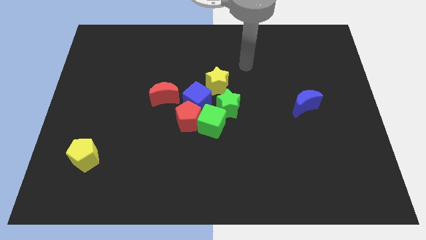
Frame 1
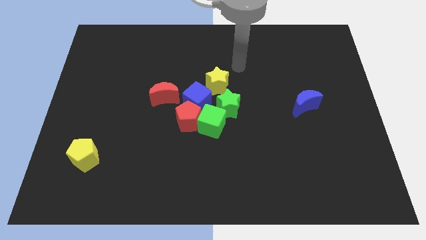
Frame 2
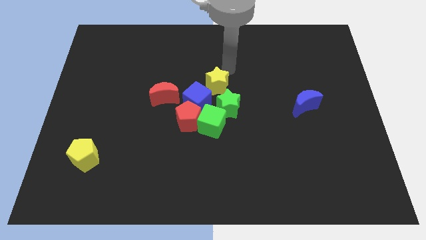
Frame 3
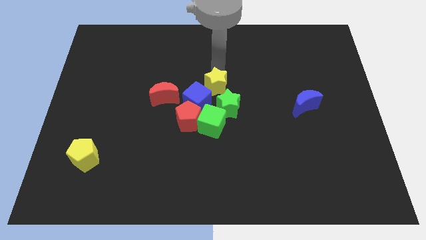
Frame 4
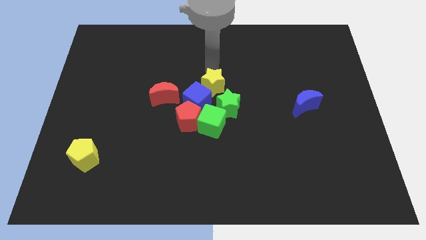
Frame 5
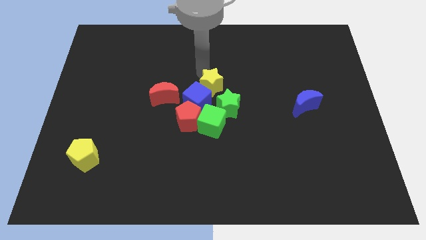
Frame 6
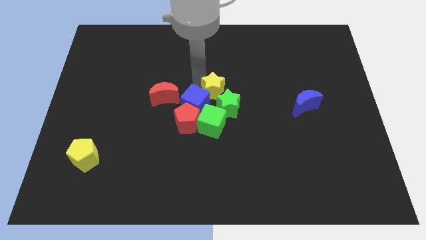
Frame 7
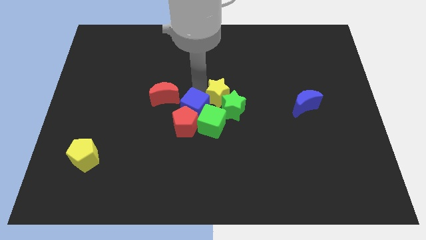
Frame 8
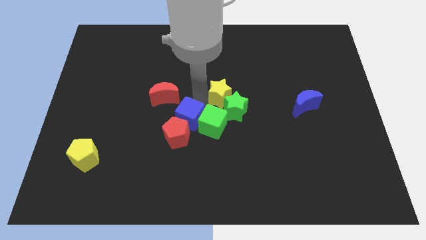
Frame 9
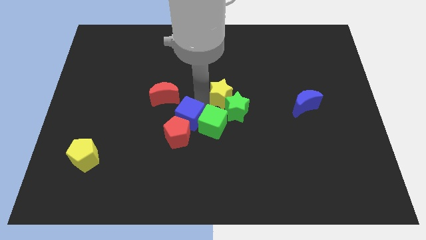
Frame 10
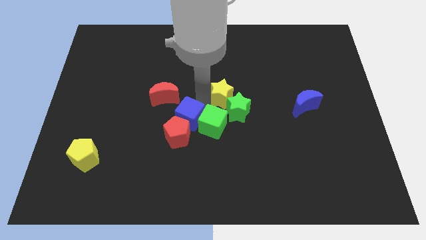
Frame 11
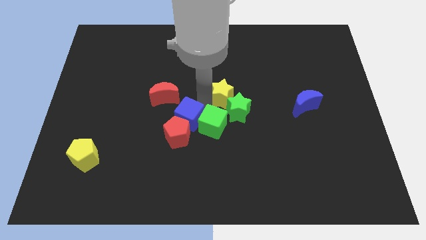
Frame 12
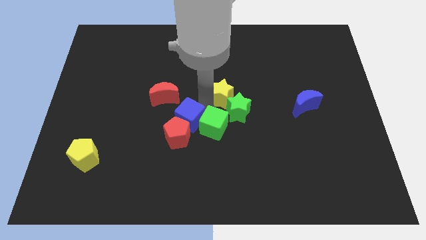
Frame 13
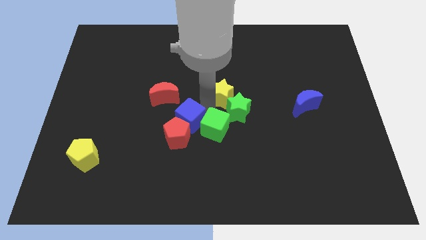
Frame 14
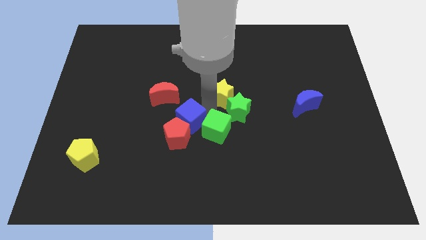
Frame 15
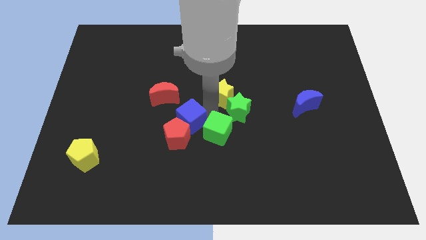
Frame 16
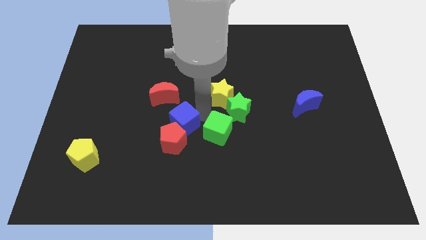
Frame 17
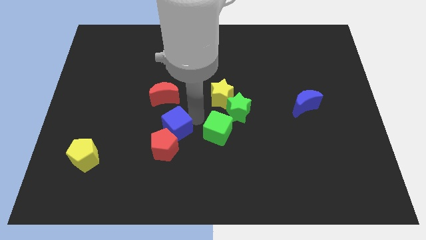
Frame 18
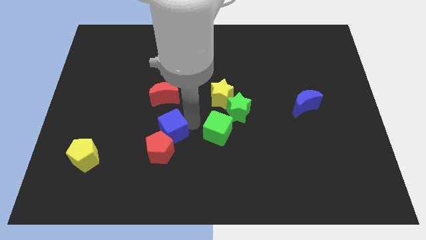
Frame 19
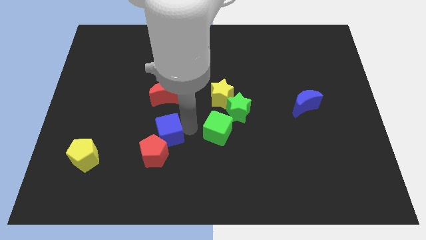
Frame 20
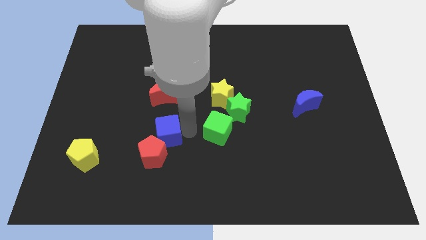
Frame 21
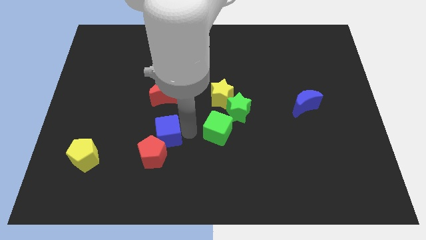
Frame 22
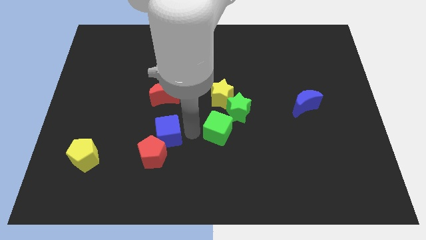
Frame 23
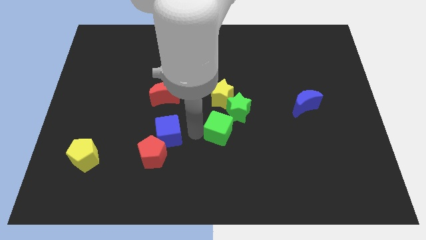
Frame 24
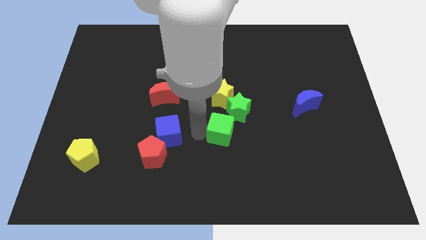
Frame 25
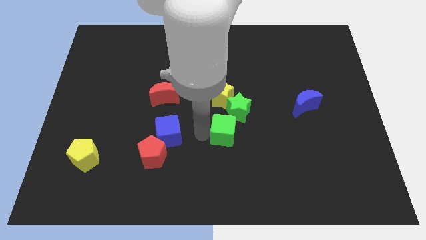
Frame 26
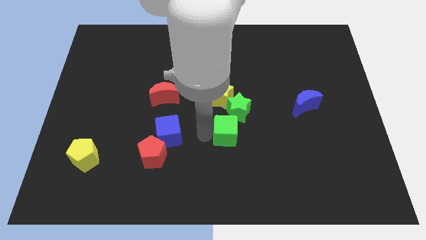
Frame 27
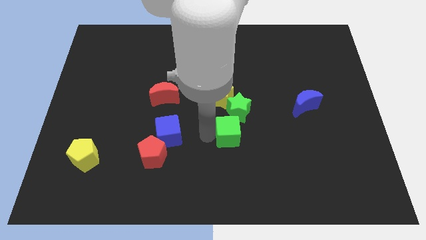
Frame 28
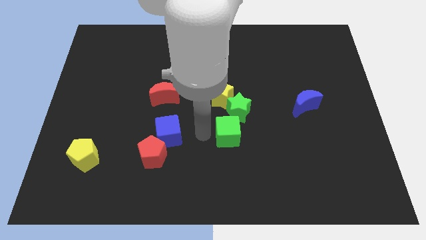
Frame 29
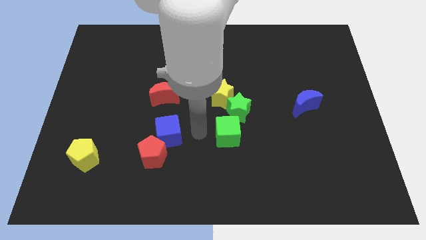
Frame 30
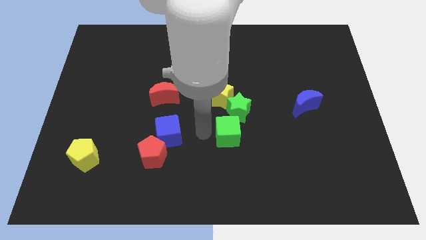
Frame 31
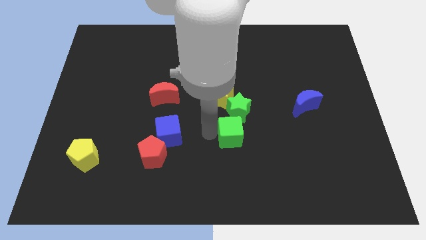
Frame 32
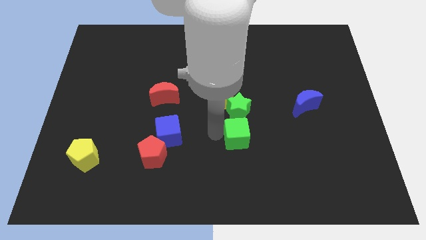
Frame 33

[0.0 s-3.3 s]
pull the green cube apart from the group of blocks

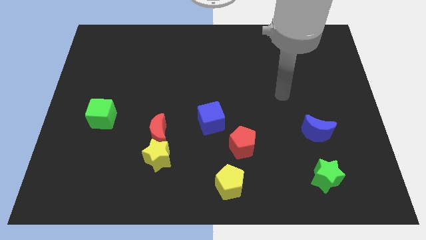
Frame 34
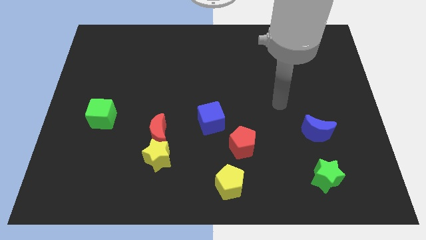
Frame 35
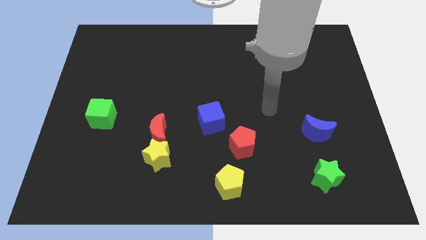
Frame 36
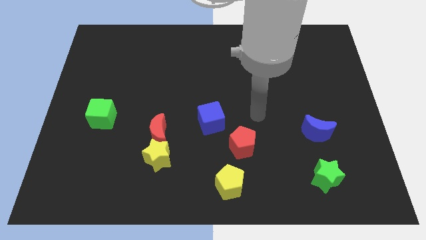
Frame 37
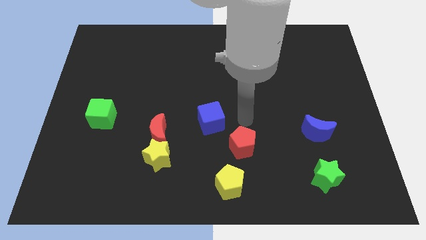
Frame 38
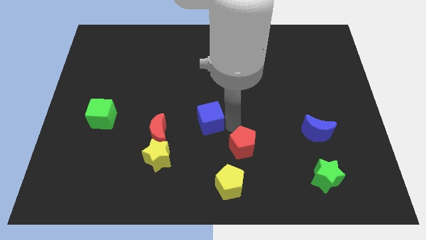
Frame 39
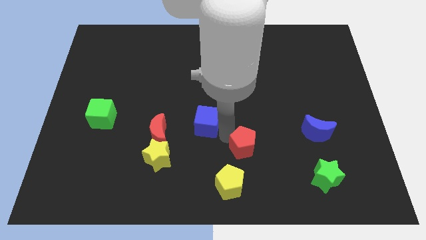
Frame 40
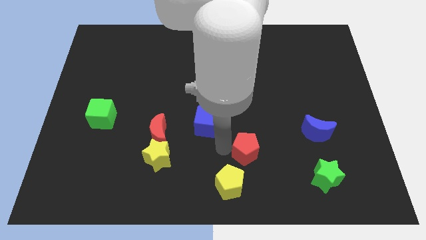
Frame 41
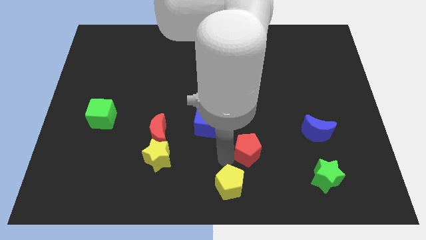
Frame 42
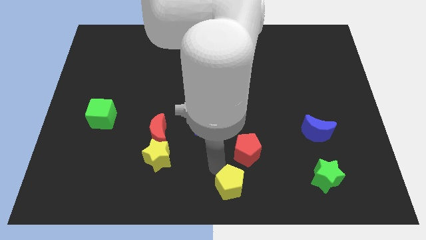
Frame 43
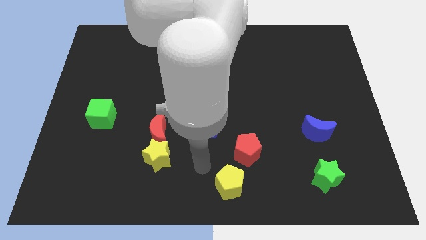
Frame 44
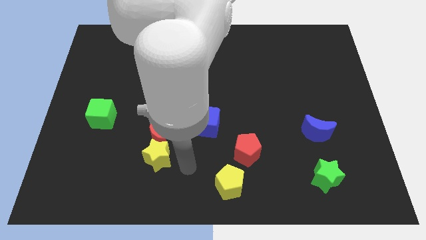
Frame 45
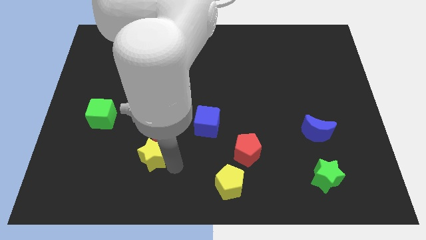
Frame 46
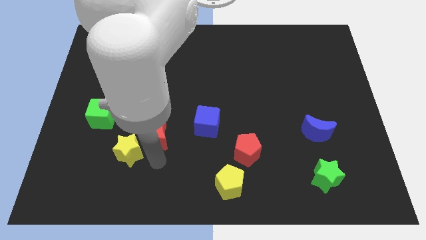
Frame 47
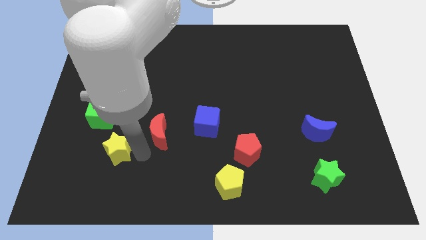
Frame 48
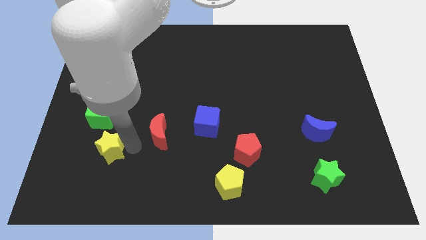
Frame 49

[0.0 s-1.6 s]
move the red moon away from the yellow star

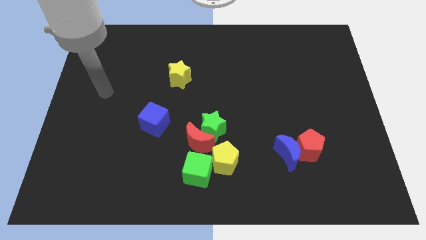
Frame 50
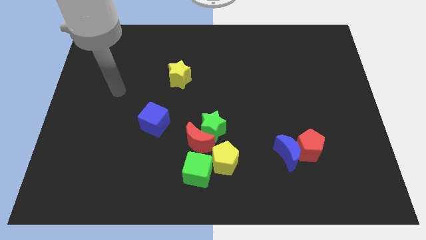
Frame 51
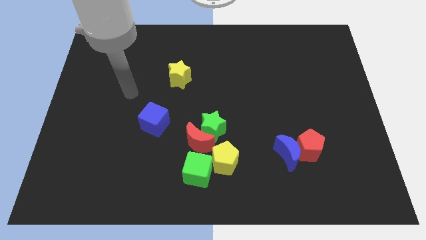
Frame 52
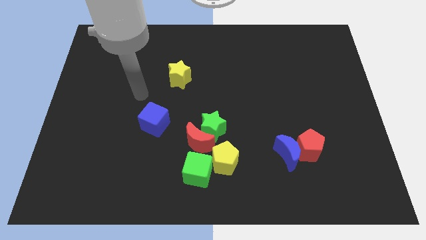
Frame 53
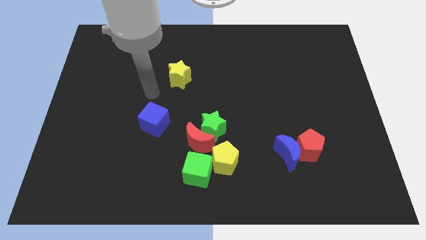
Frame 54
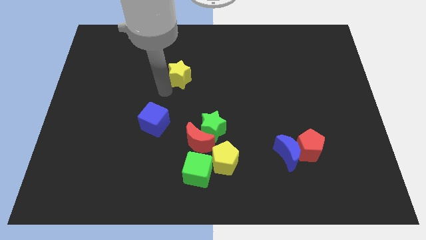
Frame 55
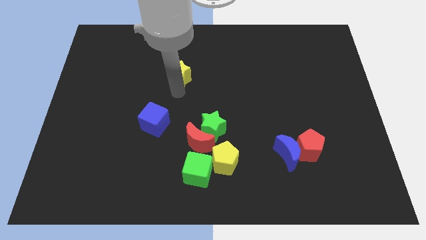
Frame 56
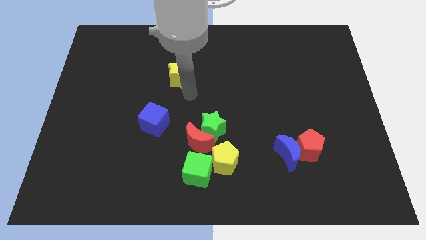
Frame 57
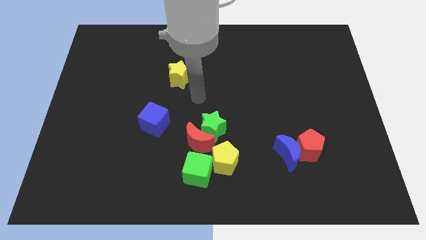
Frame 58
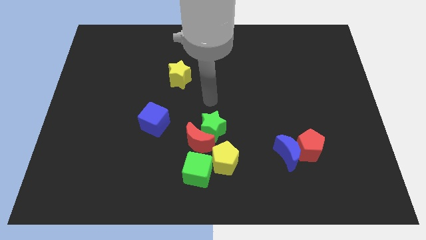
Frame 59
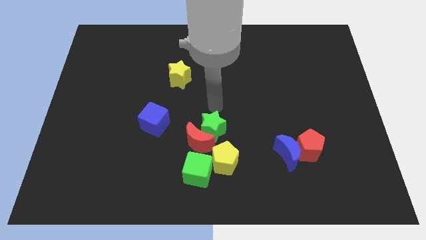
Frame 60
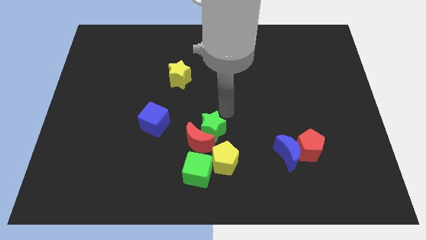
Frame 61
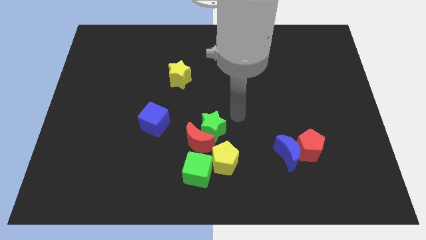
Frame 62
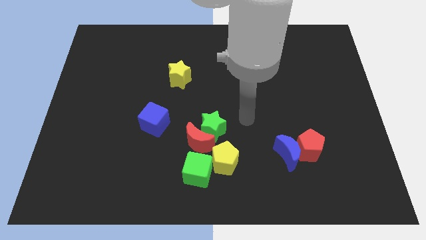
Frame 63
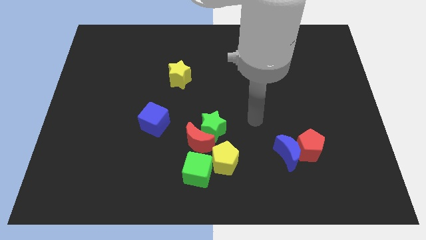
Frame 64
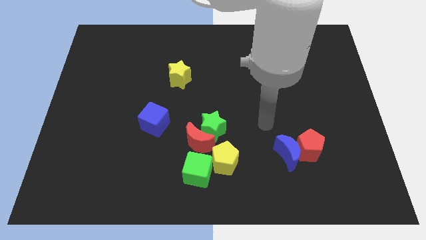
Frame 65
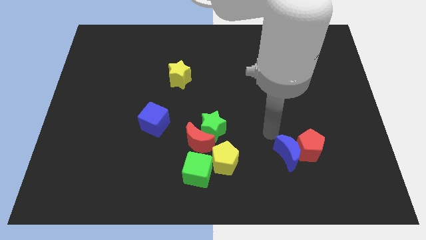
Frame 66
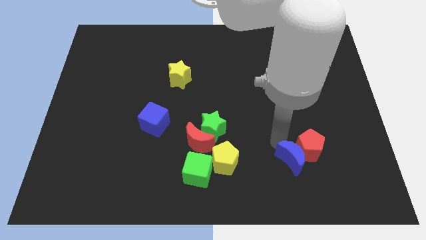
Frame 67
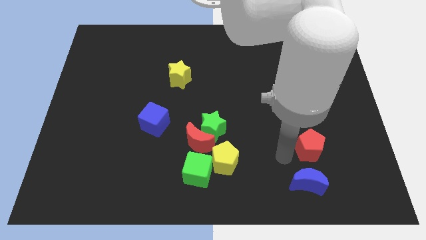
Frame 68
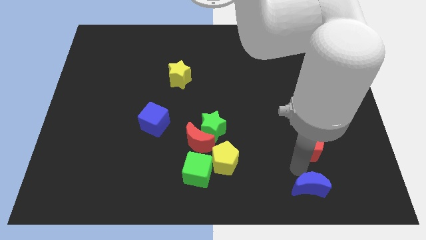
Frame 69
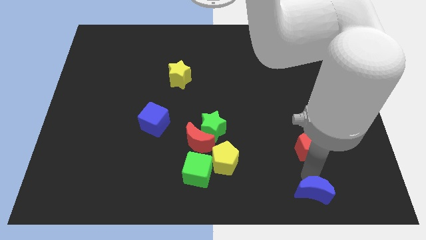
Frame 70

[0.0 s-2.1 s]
move the red pentagon away from the blue moon

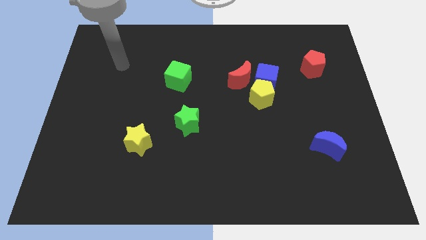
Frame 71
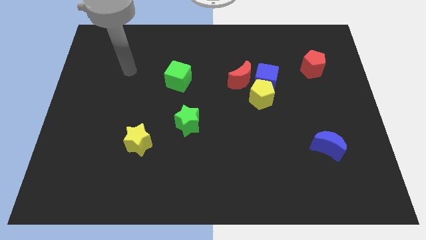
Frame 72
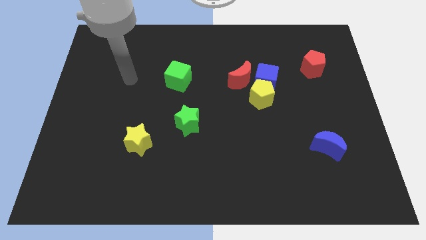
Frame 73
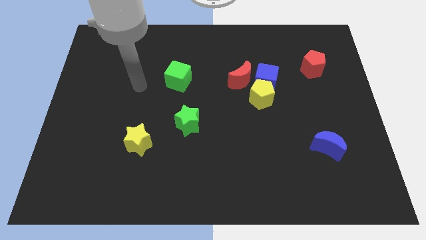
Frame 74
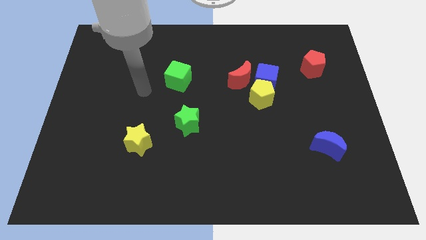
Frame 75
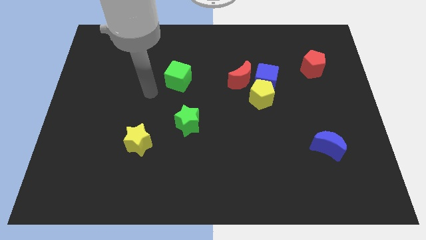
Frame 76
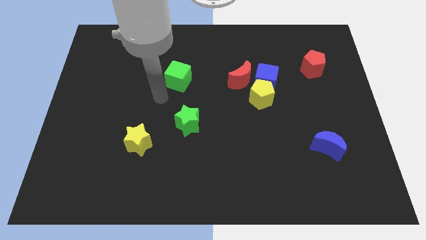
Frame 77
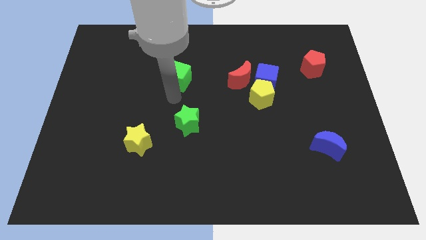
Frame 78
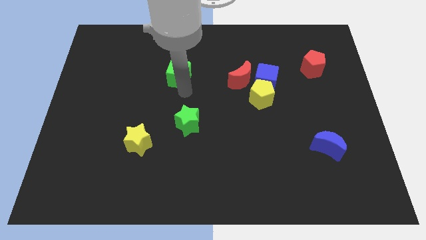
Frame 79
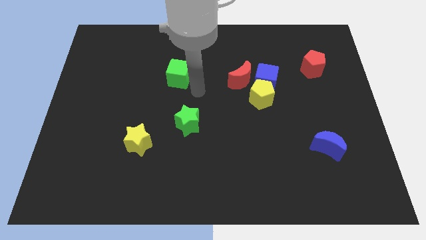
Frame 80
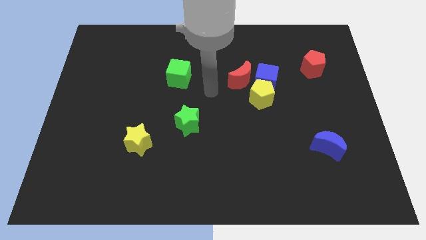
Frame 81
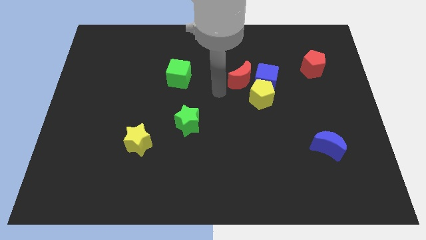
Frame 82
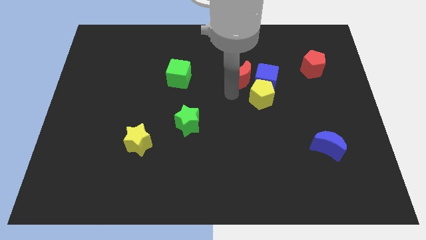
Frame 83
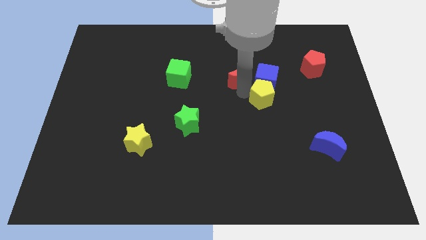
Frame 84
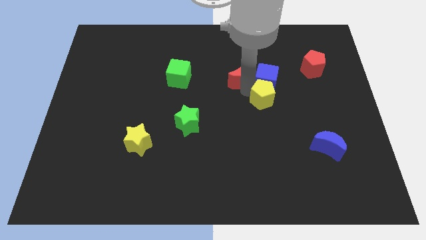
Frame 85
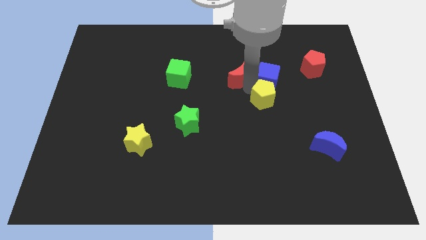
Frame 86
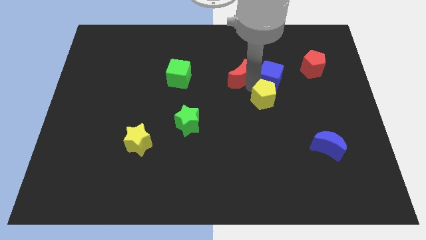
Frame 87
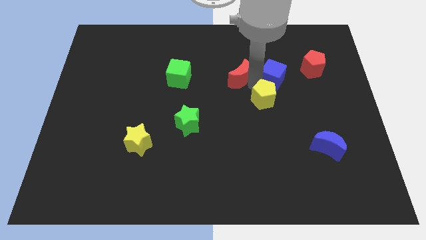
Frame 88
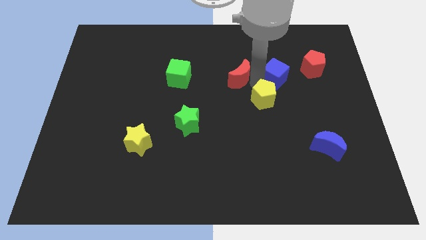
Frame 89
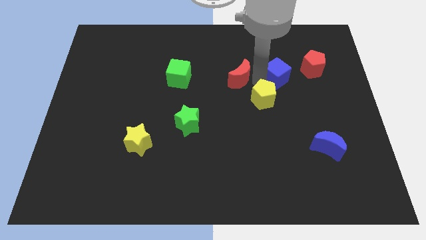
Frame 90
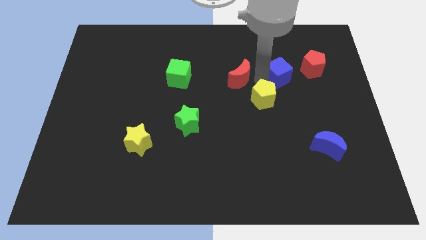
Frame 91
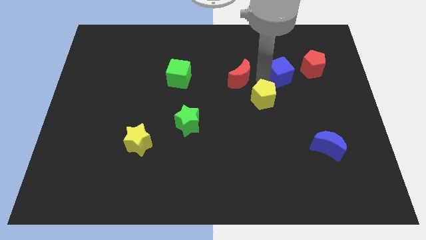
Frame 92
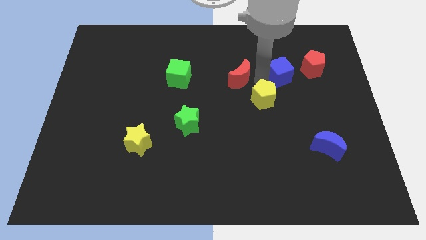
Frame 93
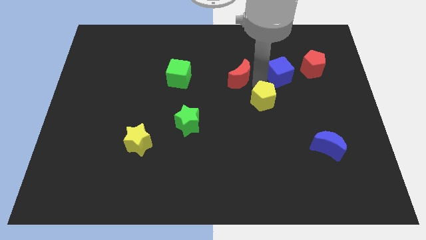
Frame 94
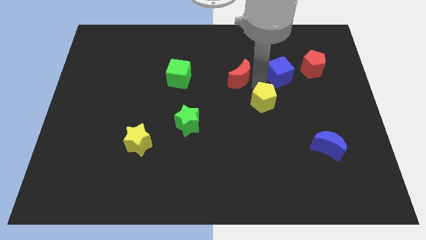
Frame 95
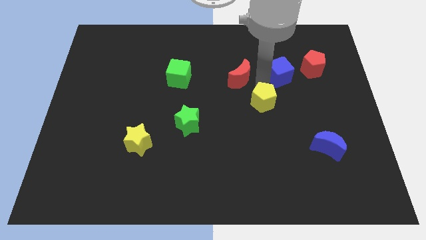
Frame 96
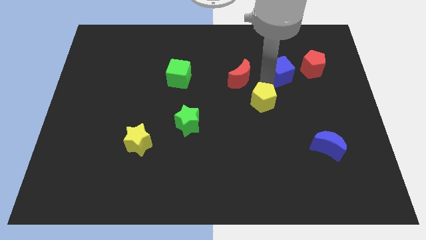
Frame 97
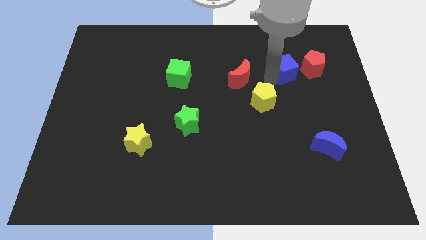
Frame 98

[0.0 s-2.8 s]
separate the blue cube from the yellow pentagon and red moon
